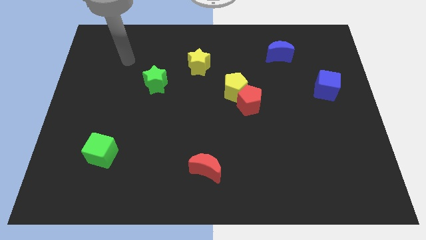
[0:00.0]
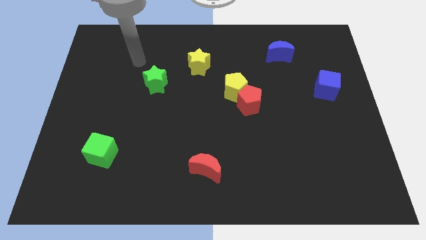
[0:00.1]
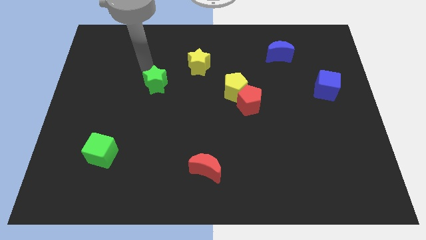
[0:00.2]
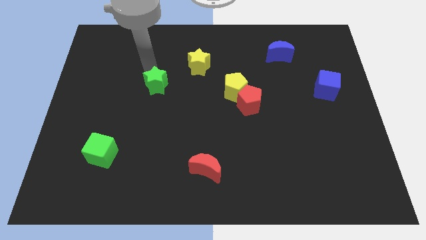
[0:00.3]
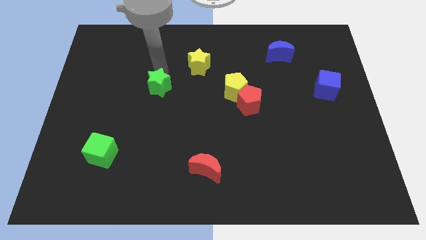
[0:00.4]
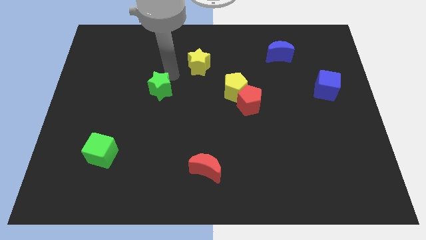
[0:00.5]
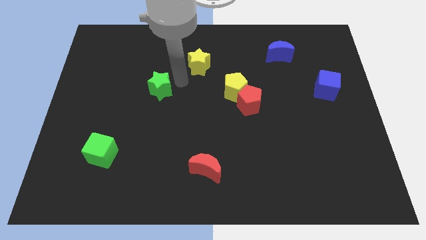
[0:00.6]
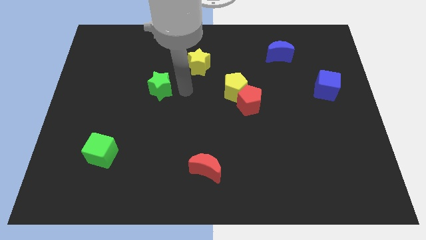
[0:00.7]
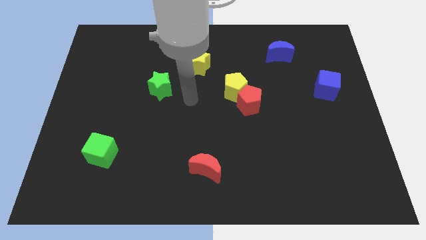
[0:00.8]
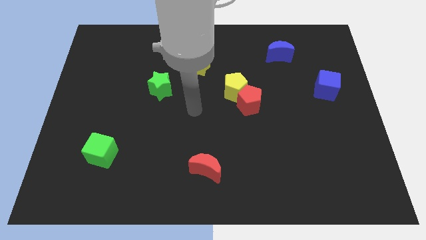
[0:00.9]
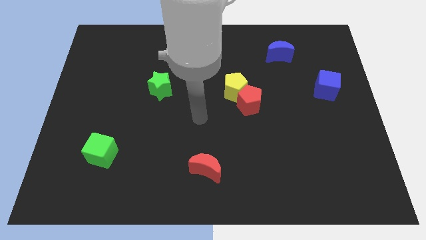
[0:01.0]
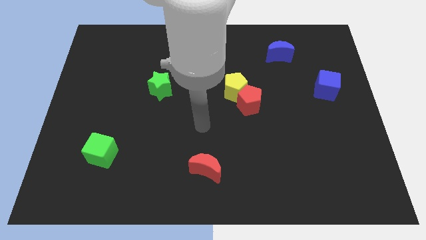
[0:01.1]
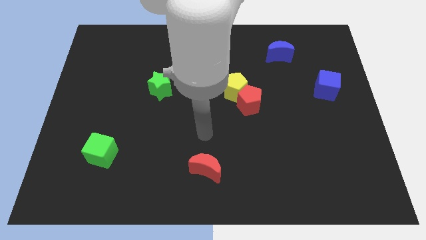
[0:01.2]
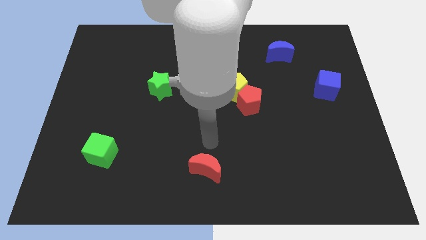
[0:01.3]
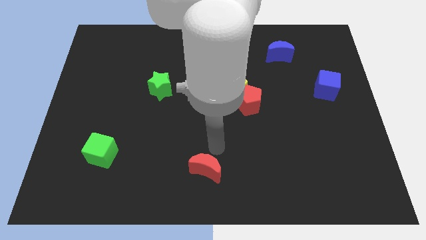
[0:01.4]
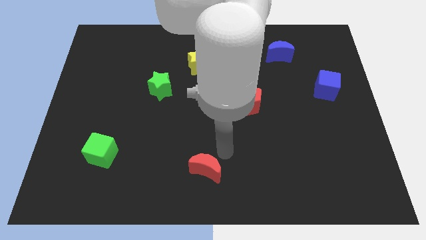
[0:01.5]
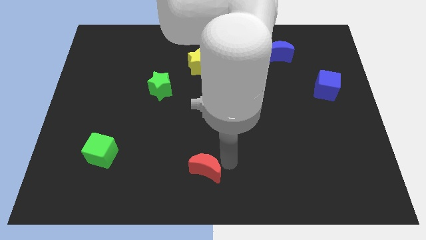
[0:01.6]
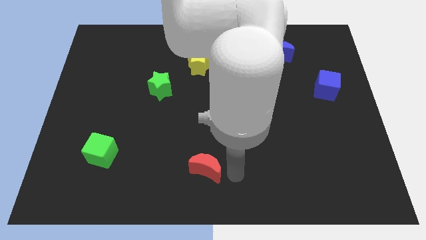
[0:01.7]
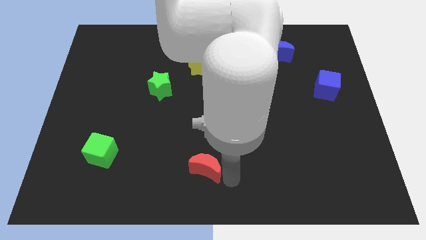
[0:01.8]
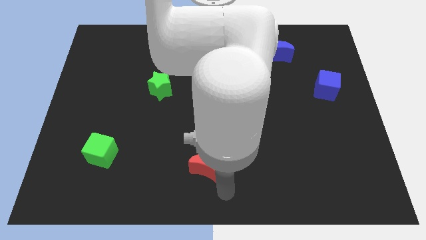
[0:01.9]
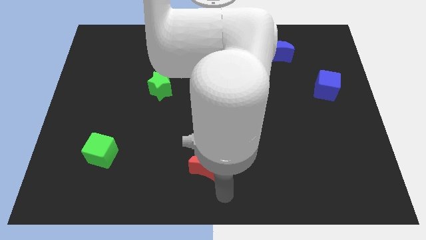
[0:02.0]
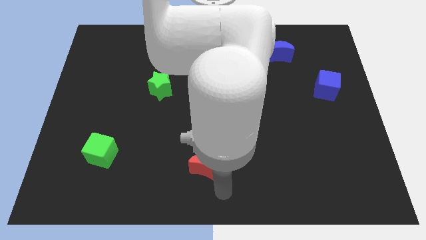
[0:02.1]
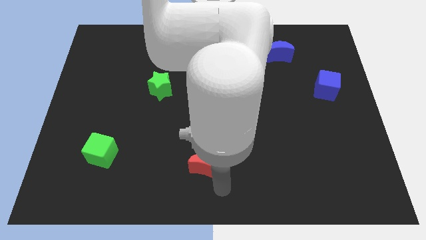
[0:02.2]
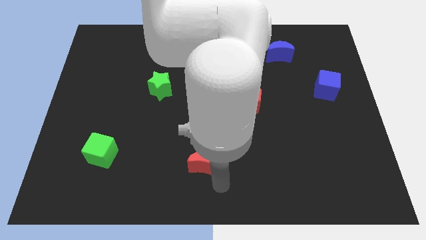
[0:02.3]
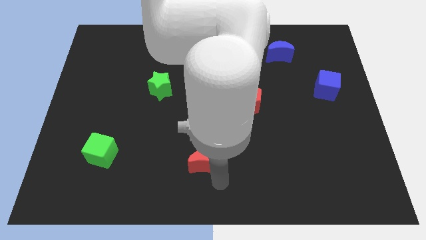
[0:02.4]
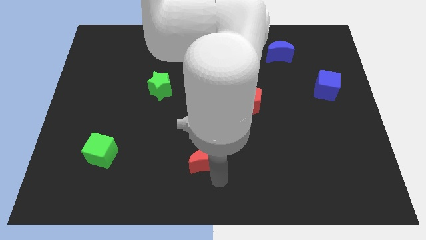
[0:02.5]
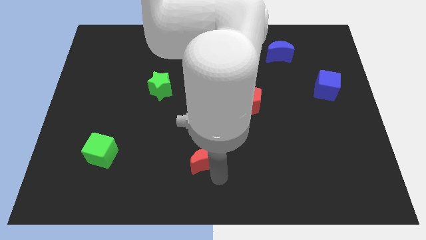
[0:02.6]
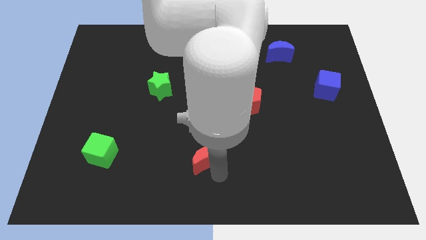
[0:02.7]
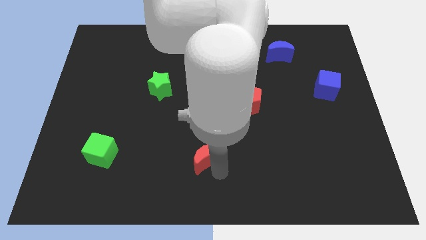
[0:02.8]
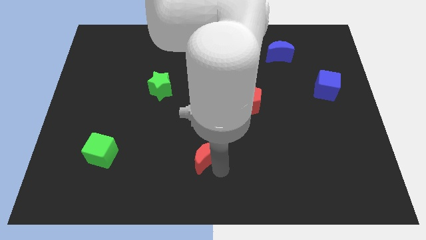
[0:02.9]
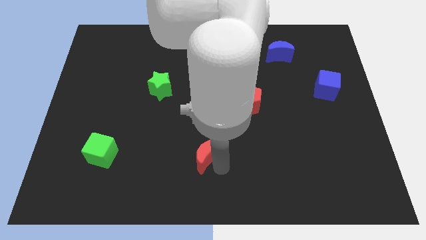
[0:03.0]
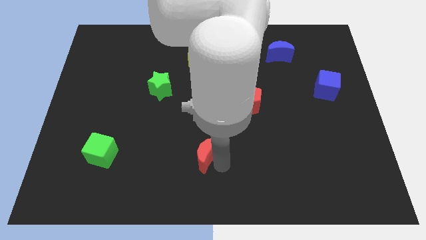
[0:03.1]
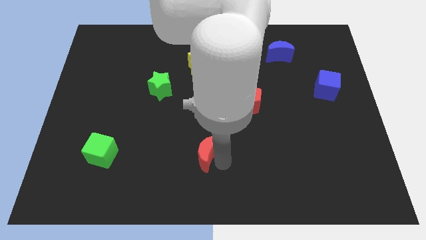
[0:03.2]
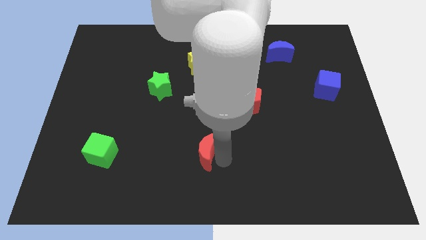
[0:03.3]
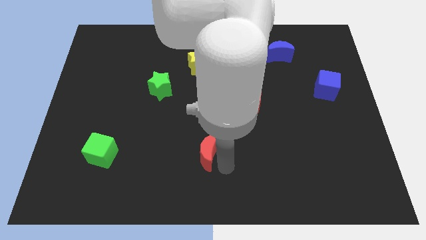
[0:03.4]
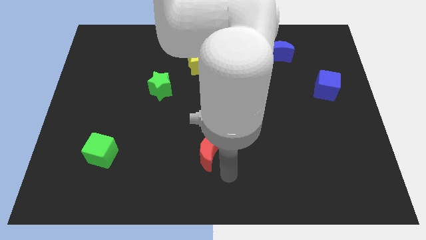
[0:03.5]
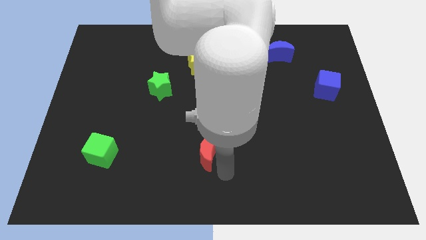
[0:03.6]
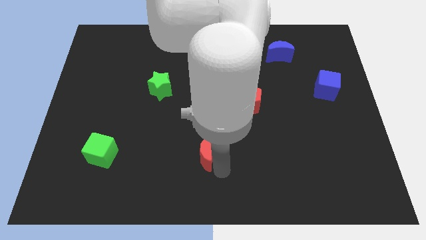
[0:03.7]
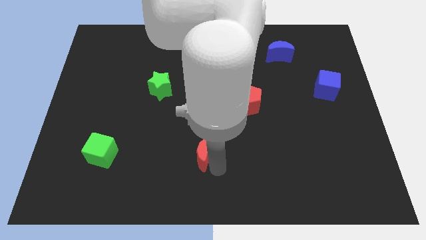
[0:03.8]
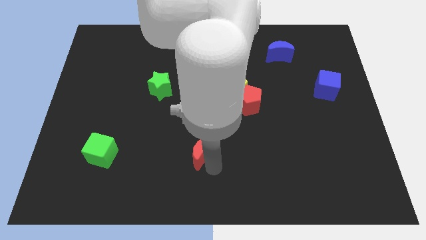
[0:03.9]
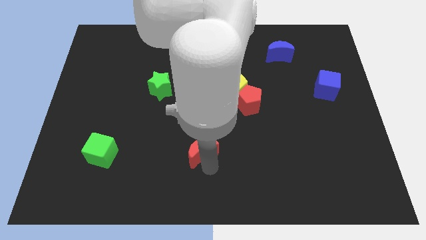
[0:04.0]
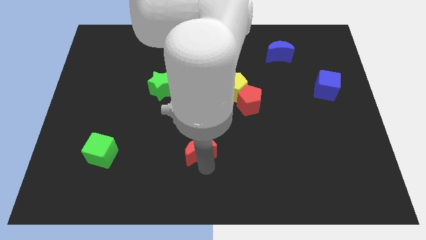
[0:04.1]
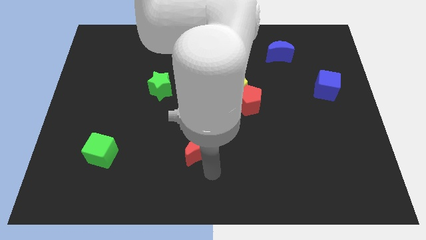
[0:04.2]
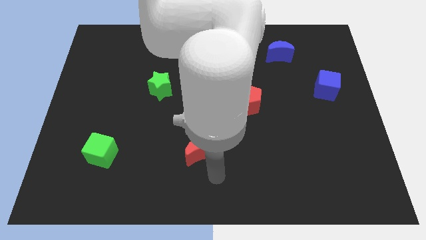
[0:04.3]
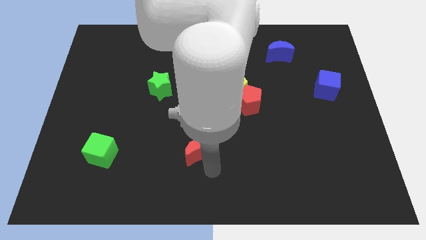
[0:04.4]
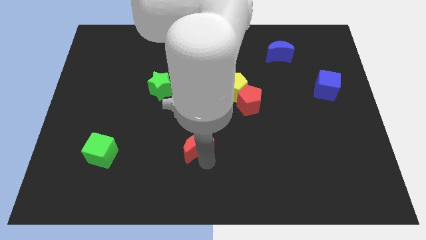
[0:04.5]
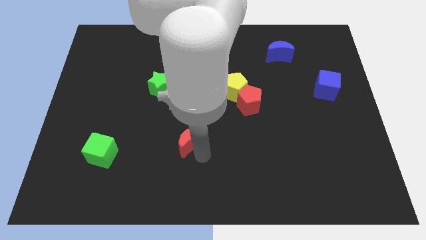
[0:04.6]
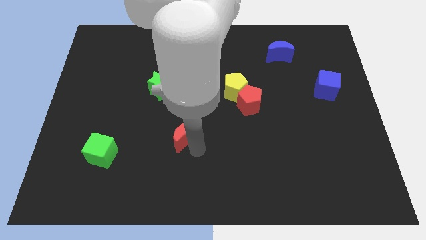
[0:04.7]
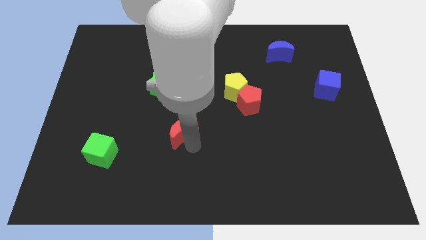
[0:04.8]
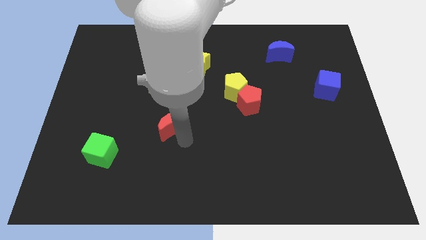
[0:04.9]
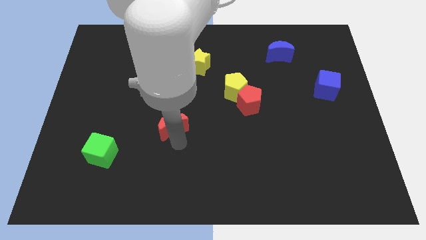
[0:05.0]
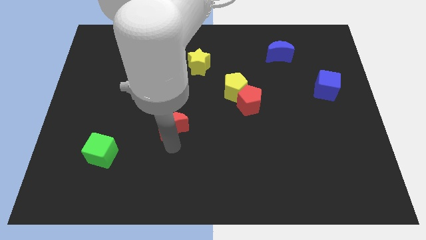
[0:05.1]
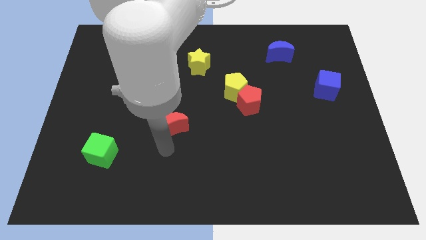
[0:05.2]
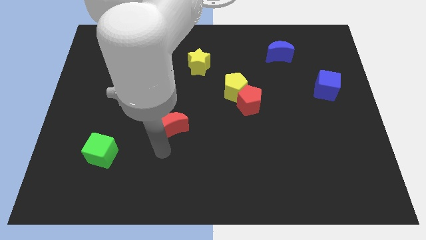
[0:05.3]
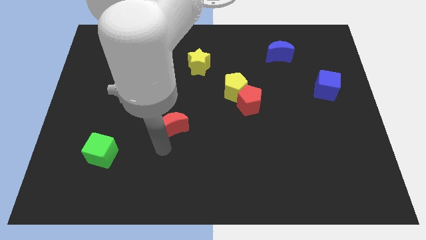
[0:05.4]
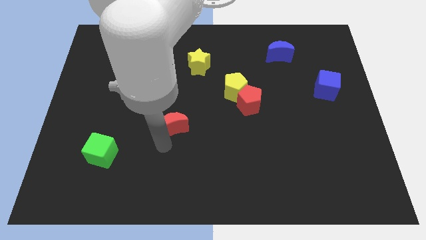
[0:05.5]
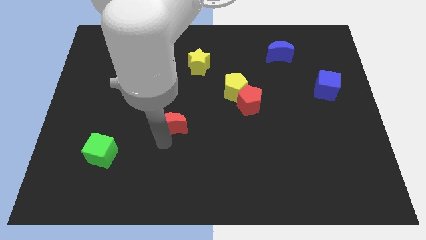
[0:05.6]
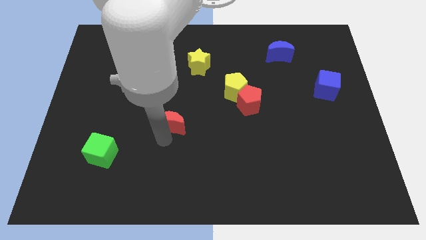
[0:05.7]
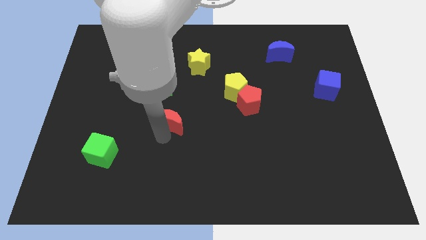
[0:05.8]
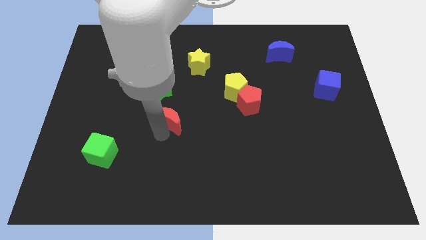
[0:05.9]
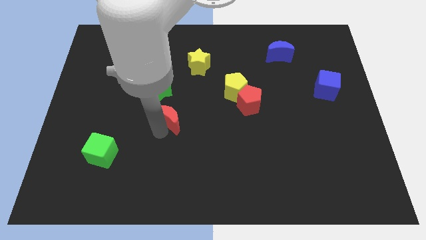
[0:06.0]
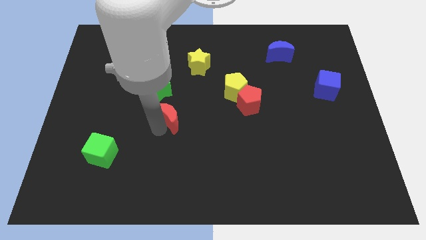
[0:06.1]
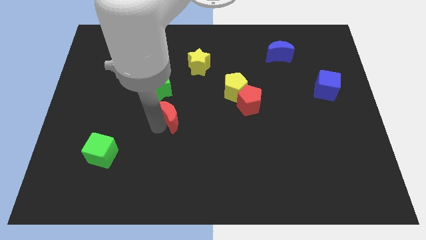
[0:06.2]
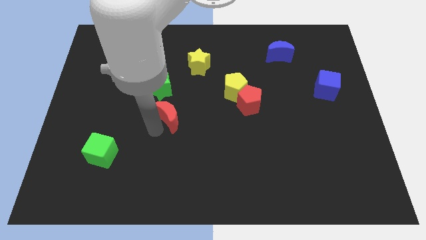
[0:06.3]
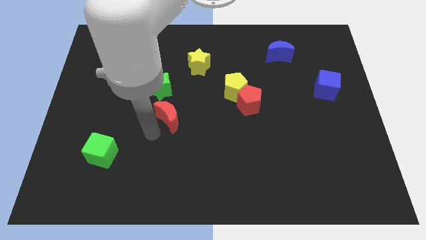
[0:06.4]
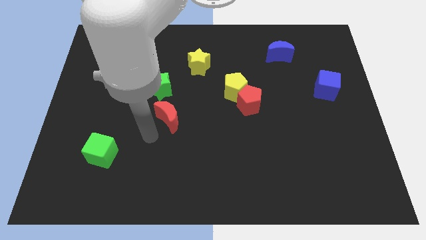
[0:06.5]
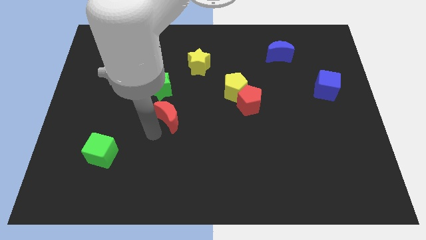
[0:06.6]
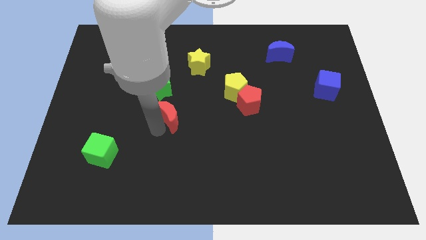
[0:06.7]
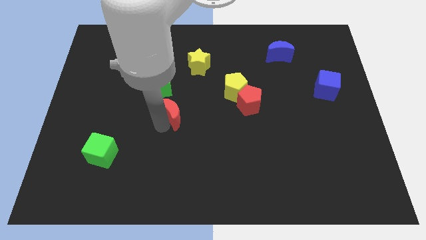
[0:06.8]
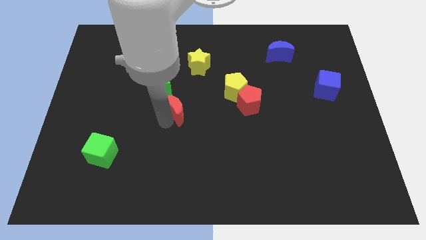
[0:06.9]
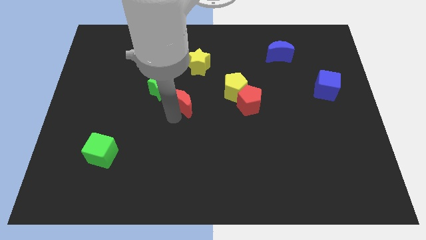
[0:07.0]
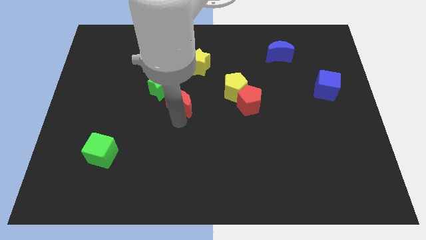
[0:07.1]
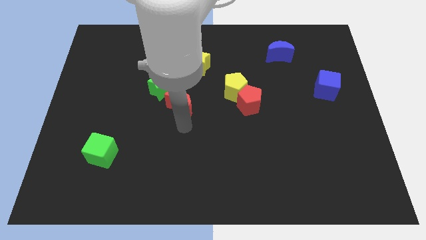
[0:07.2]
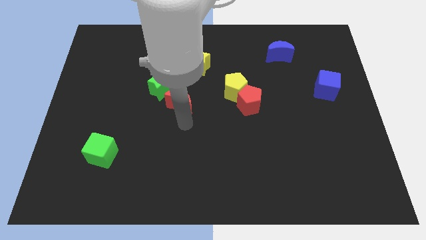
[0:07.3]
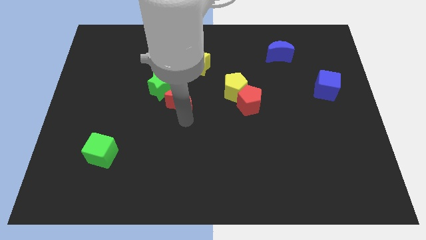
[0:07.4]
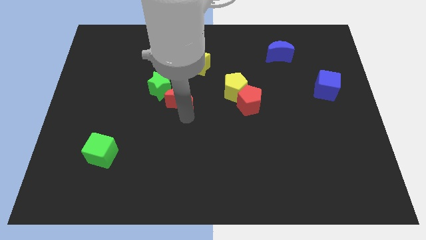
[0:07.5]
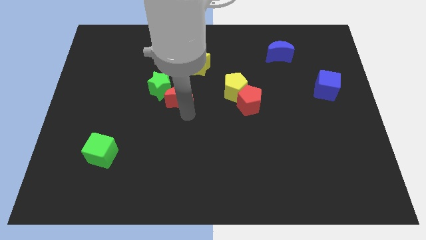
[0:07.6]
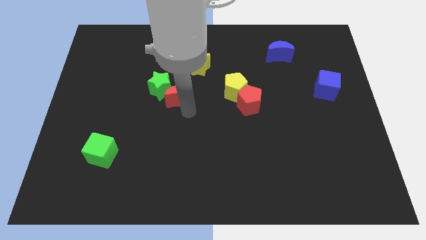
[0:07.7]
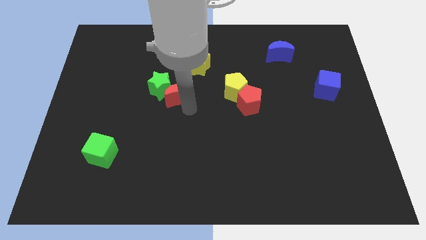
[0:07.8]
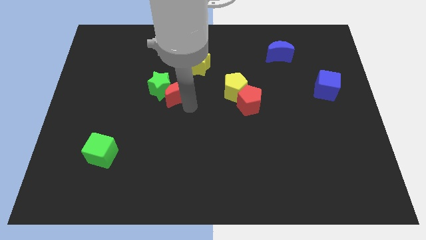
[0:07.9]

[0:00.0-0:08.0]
put the red moon diagonally down and to the left of the yellow star
